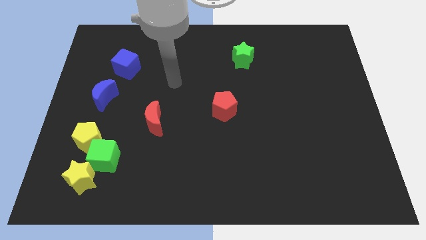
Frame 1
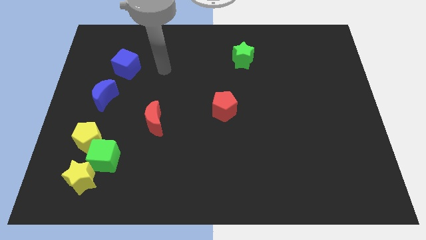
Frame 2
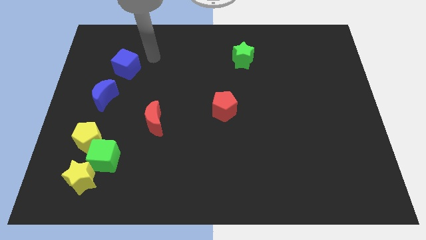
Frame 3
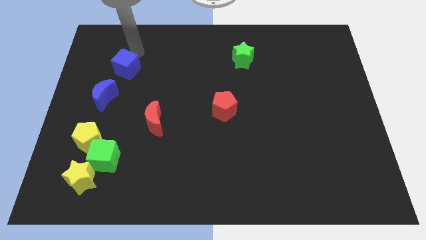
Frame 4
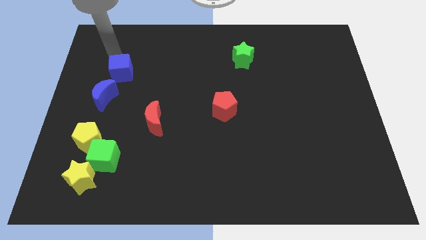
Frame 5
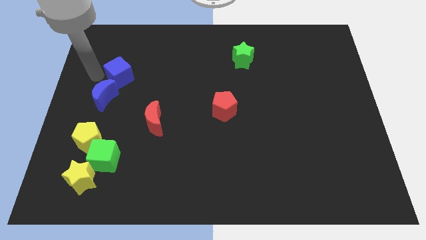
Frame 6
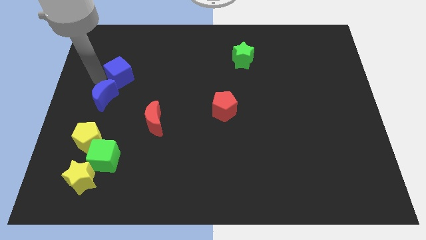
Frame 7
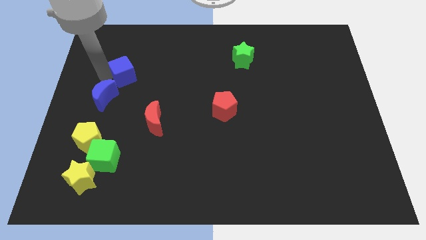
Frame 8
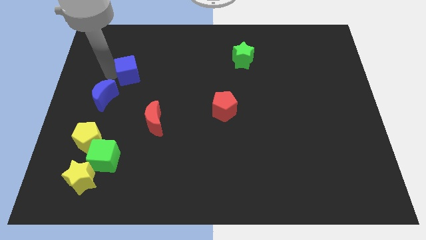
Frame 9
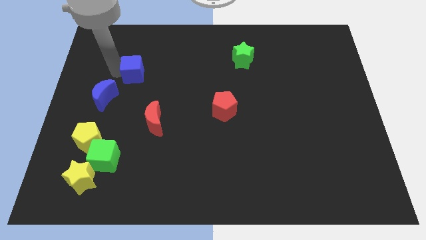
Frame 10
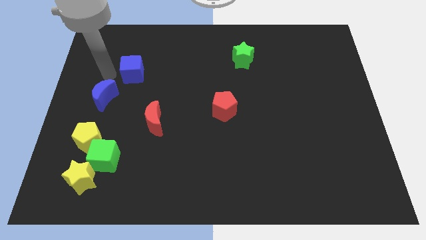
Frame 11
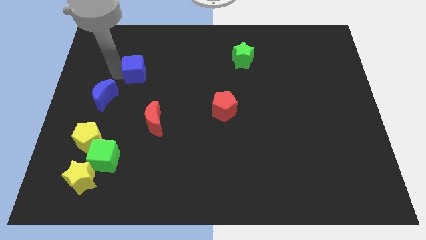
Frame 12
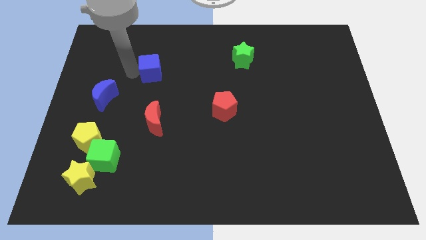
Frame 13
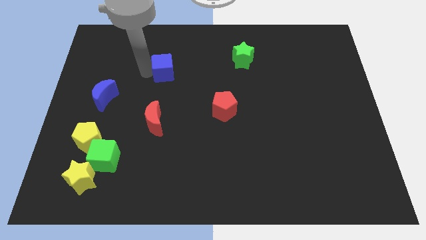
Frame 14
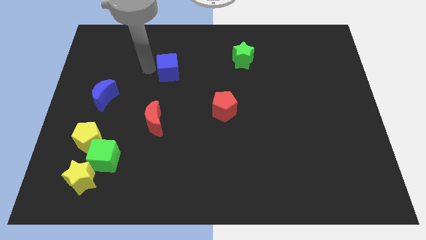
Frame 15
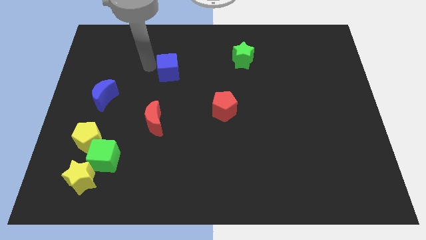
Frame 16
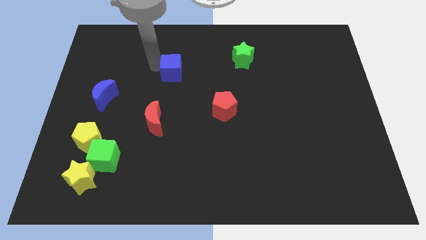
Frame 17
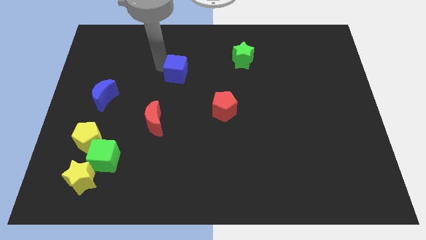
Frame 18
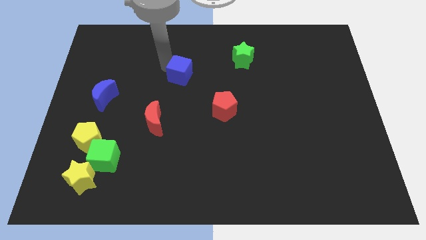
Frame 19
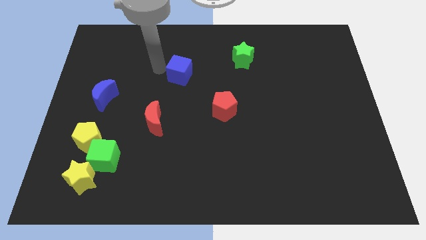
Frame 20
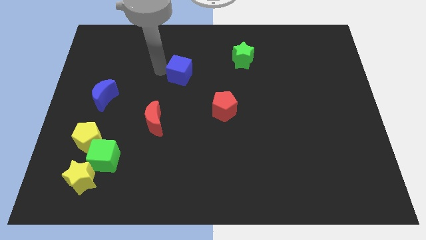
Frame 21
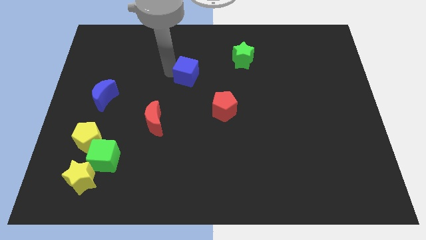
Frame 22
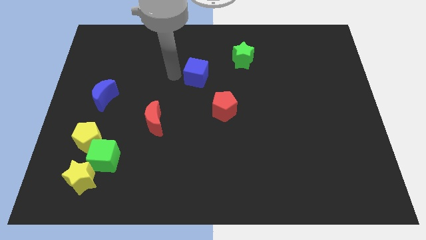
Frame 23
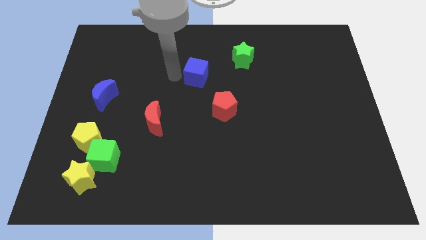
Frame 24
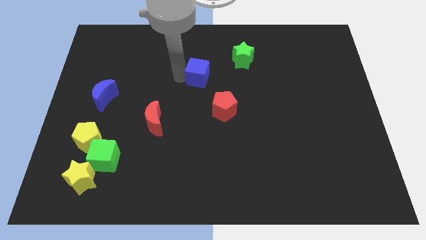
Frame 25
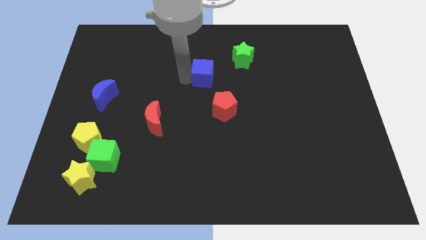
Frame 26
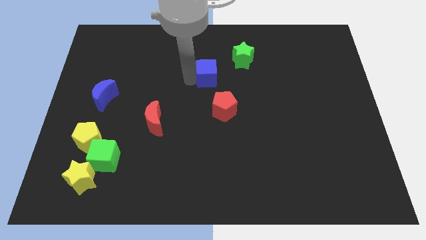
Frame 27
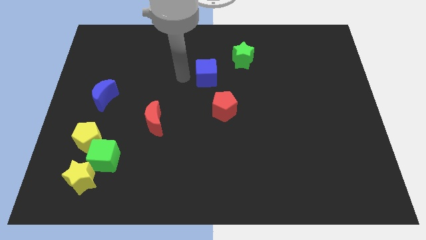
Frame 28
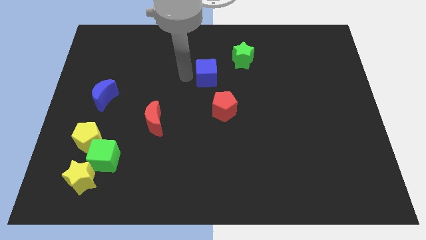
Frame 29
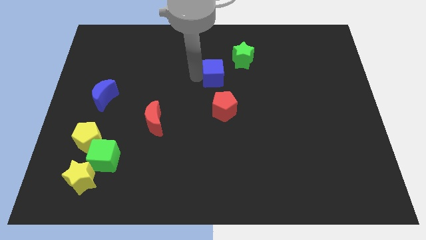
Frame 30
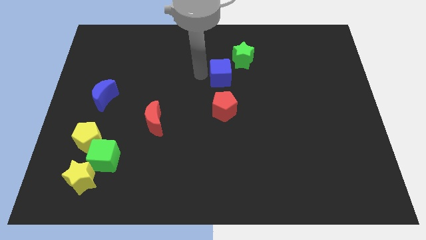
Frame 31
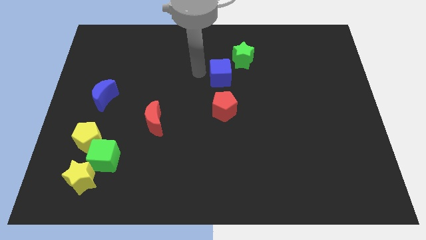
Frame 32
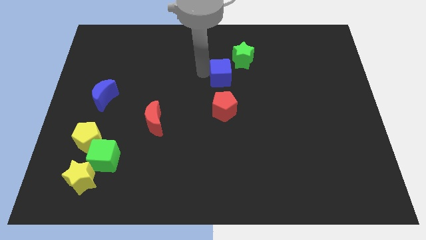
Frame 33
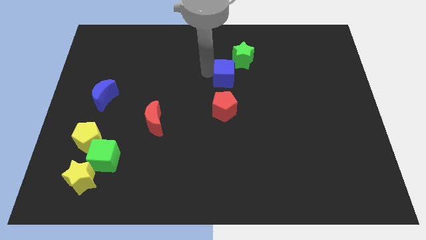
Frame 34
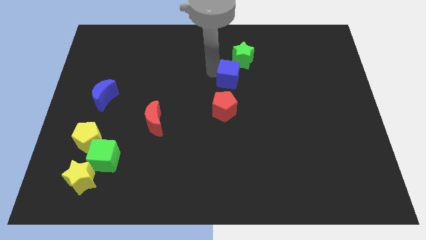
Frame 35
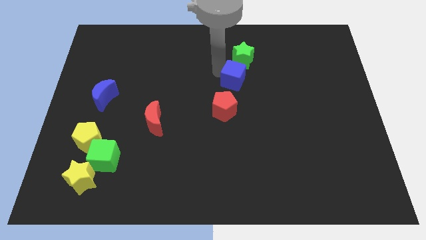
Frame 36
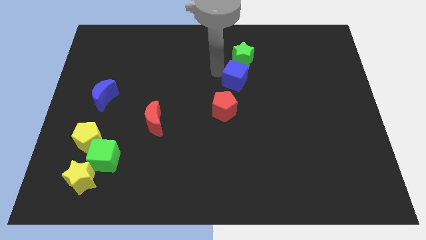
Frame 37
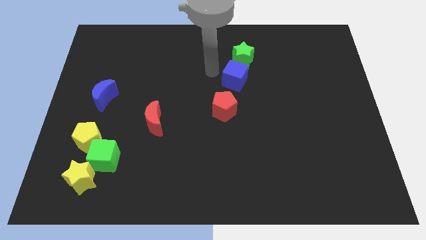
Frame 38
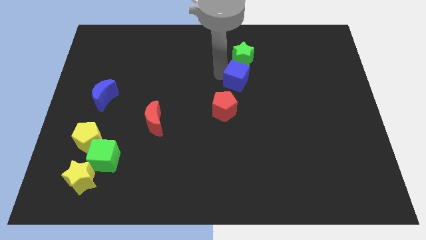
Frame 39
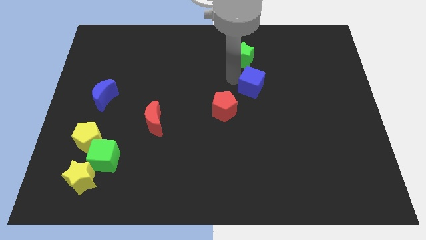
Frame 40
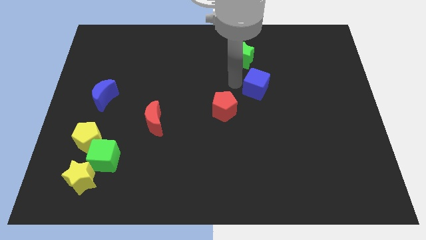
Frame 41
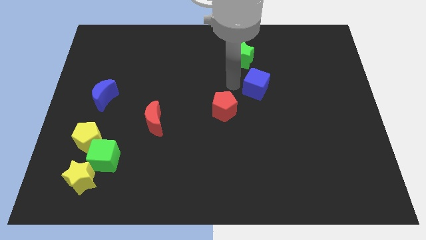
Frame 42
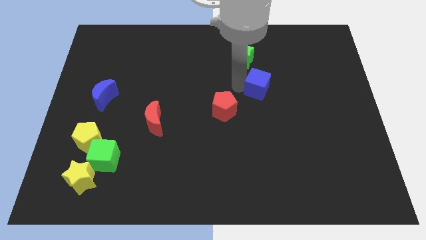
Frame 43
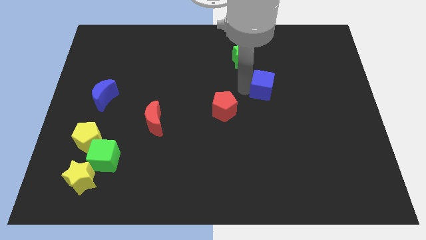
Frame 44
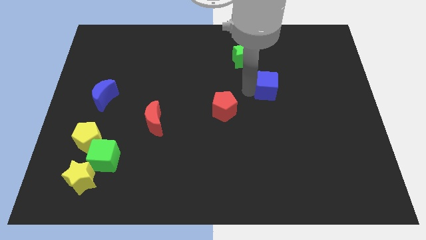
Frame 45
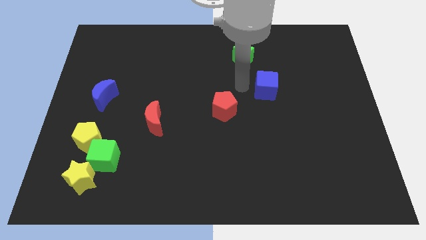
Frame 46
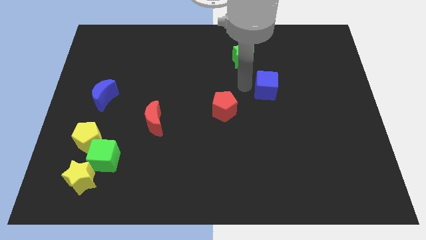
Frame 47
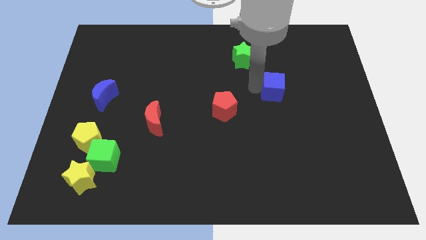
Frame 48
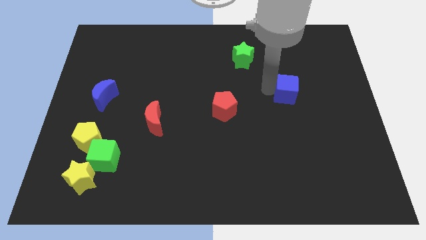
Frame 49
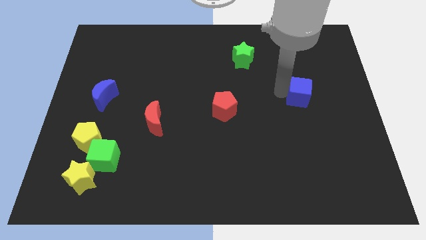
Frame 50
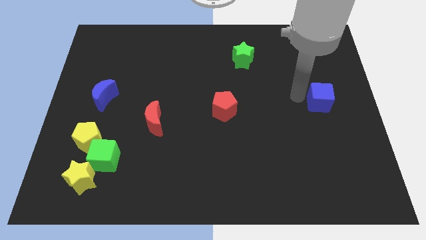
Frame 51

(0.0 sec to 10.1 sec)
slide the blue cube to the right side of the board

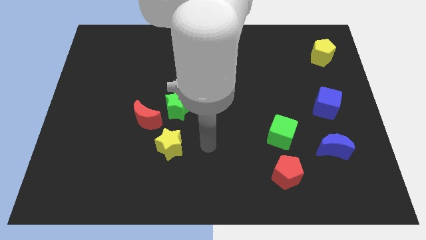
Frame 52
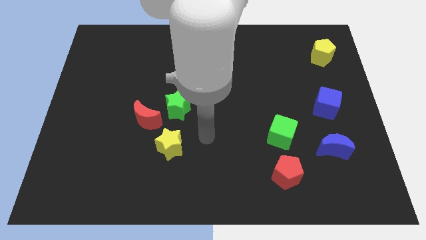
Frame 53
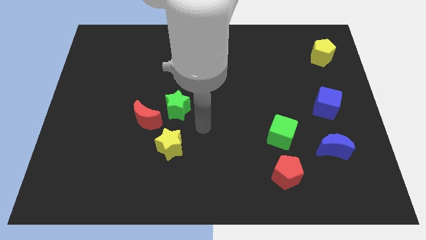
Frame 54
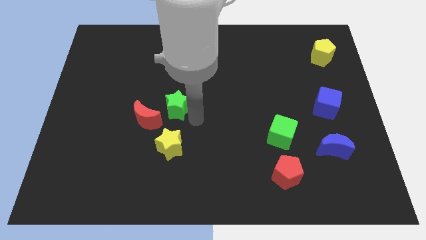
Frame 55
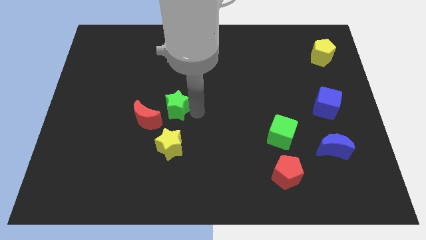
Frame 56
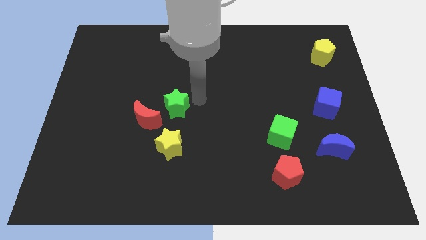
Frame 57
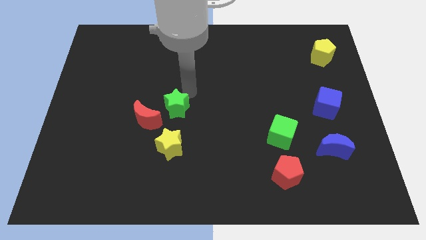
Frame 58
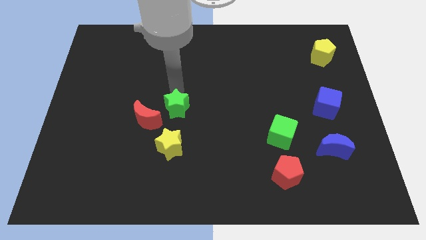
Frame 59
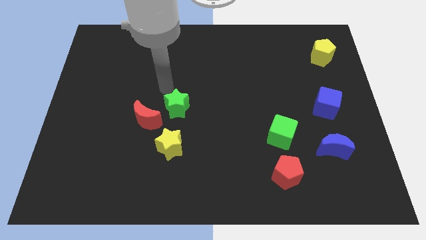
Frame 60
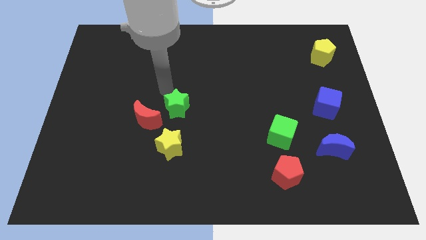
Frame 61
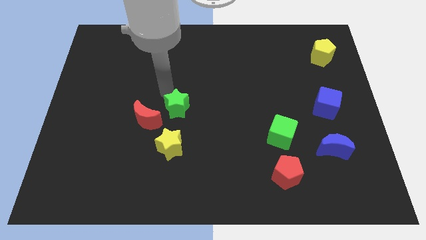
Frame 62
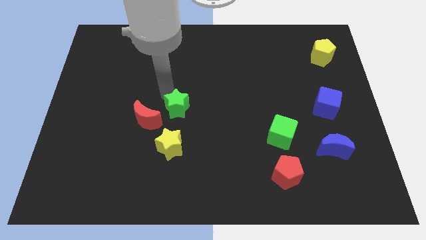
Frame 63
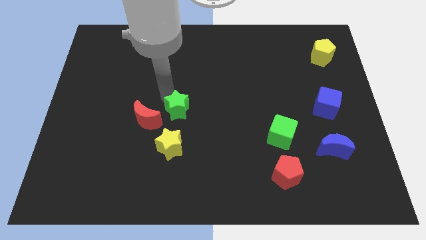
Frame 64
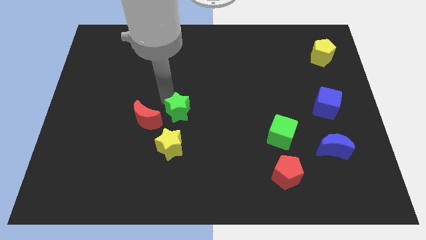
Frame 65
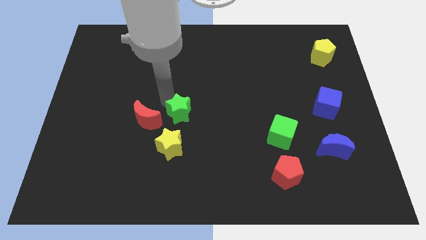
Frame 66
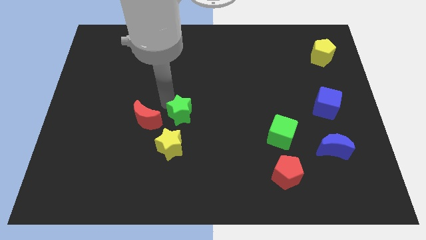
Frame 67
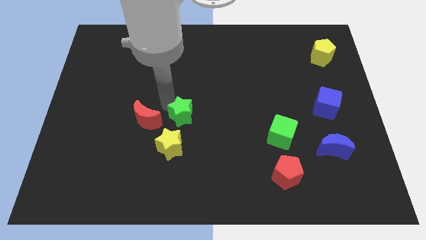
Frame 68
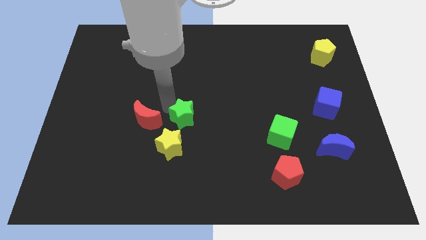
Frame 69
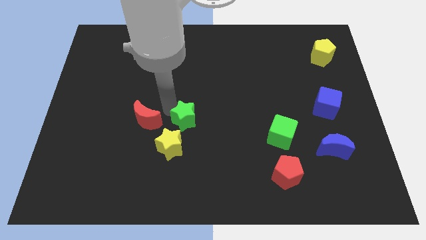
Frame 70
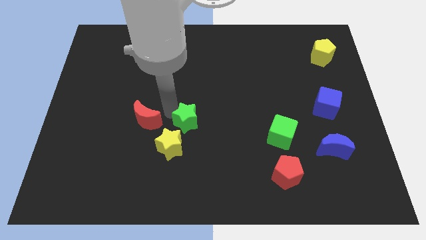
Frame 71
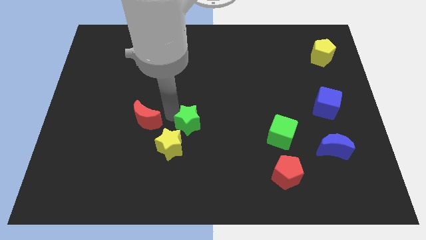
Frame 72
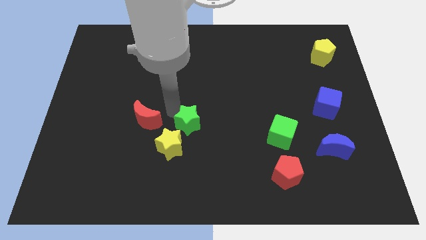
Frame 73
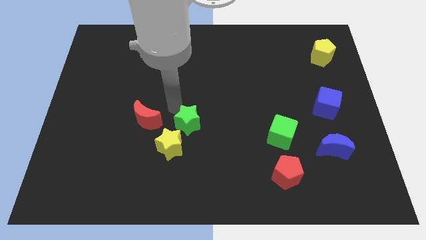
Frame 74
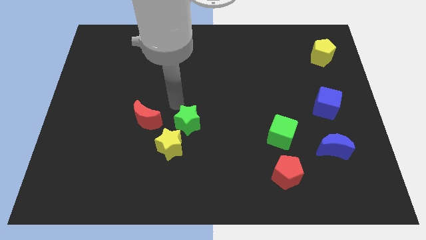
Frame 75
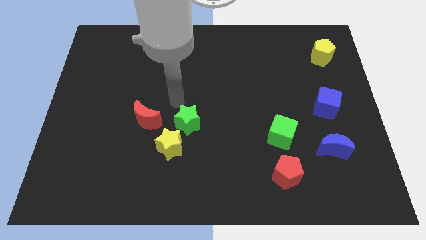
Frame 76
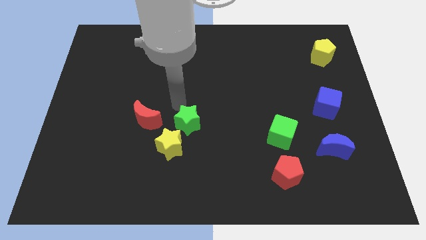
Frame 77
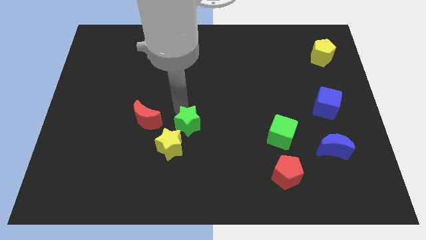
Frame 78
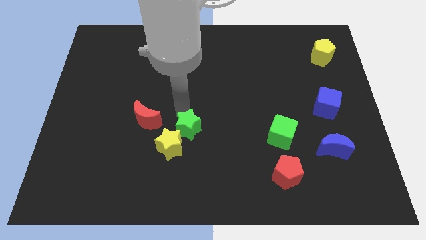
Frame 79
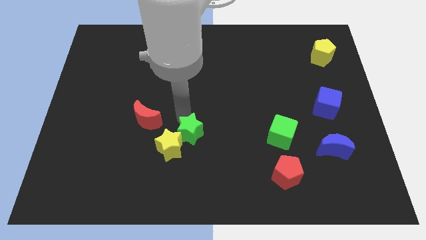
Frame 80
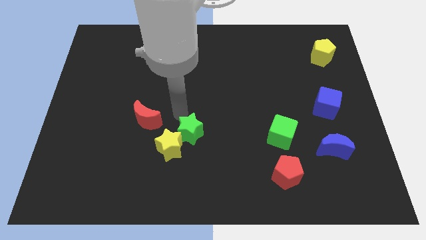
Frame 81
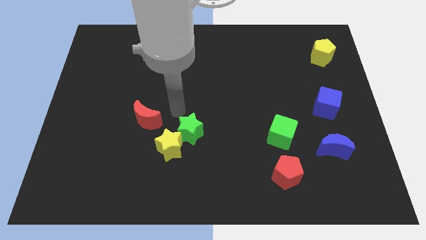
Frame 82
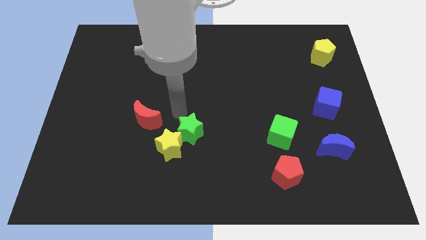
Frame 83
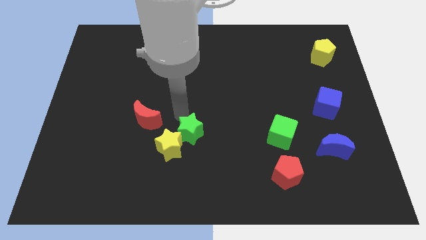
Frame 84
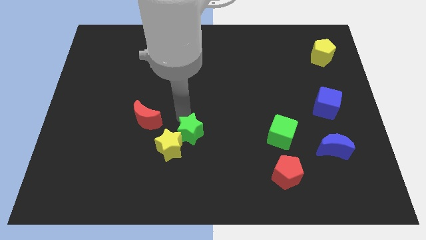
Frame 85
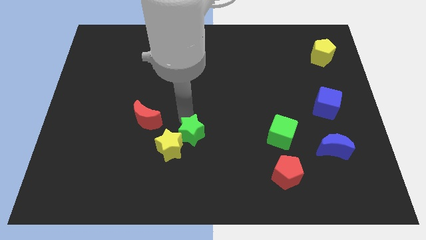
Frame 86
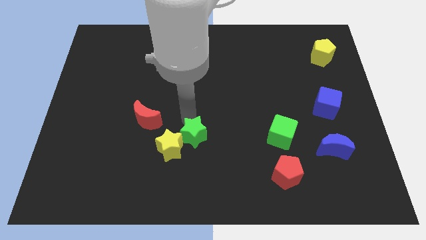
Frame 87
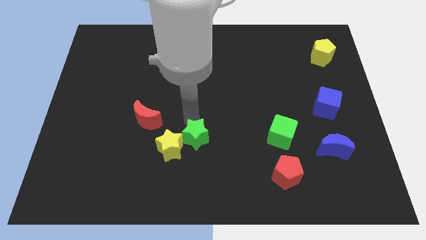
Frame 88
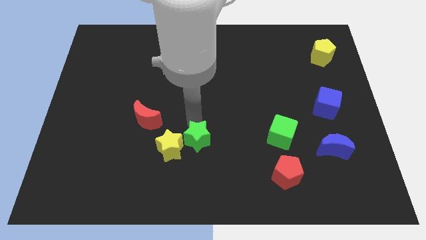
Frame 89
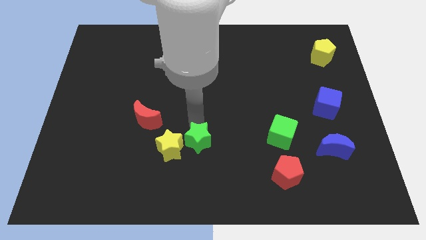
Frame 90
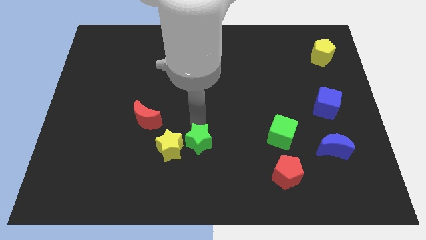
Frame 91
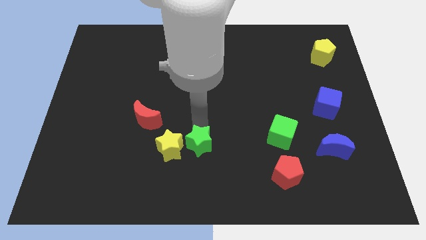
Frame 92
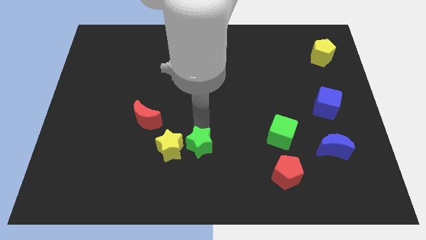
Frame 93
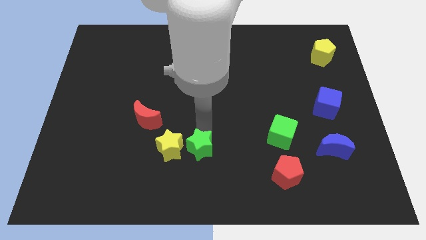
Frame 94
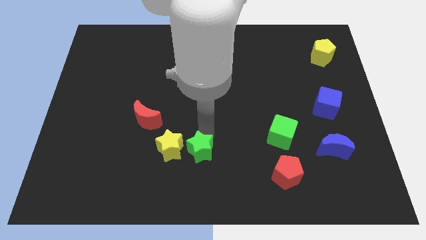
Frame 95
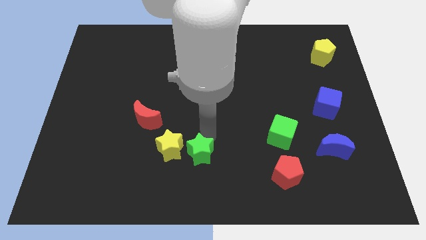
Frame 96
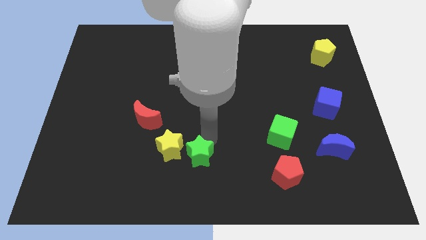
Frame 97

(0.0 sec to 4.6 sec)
slide the green star to the bottom
